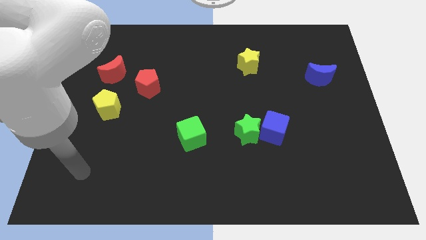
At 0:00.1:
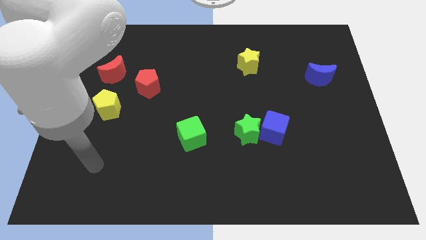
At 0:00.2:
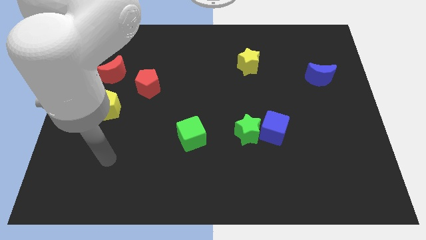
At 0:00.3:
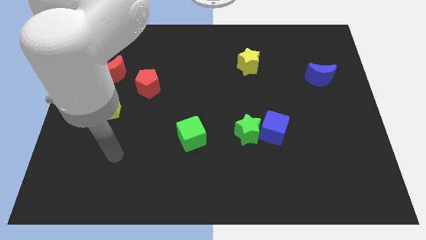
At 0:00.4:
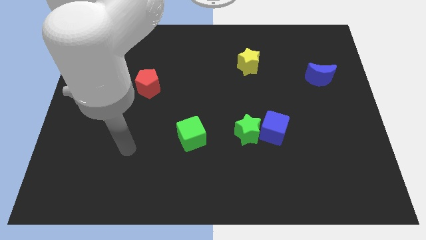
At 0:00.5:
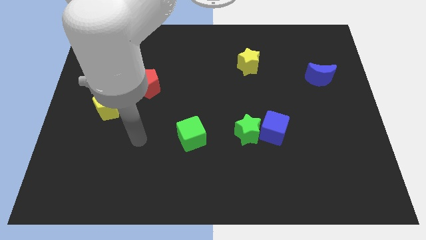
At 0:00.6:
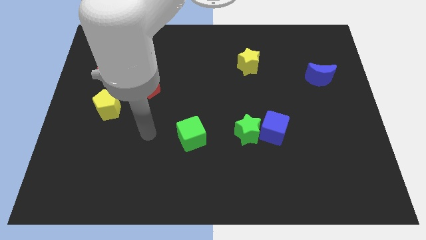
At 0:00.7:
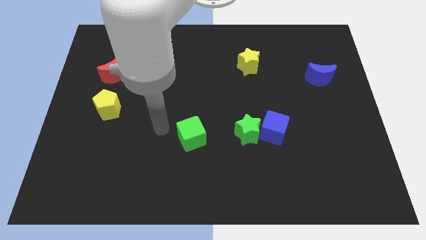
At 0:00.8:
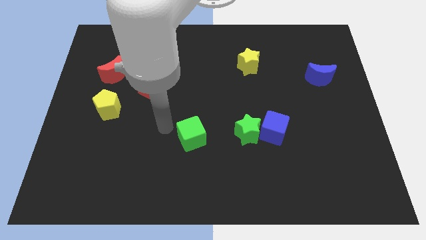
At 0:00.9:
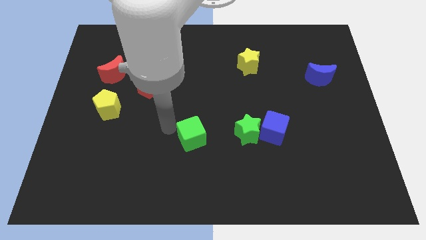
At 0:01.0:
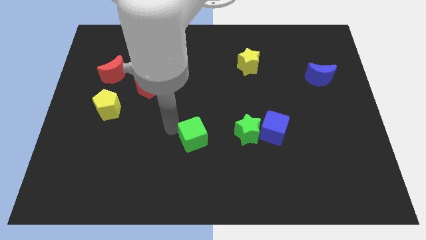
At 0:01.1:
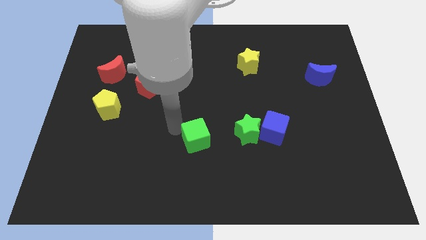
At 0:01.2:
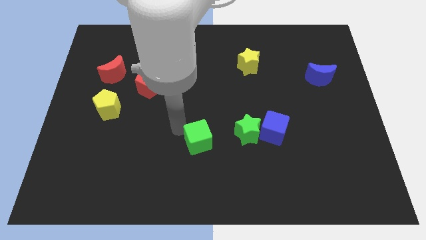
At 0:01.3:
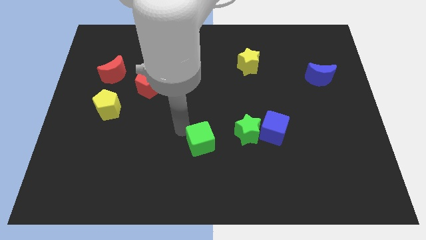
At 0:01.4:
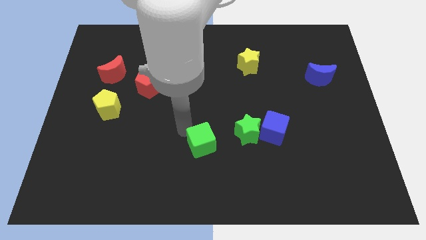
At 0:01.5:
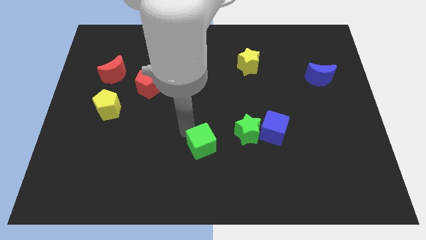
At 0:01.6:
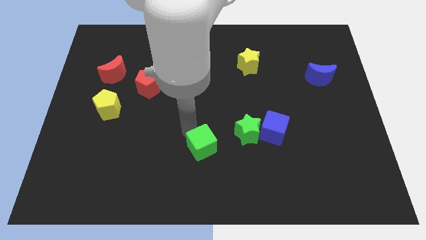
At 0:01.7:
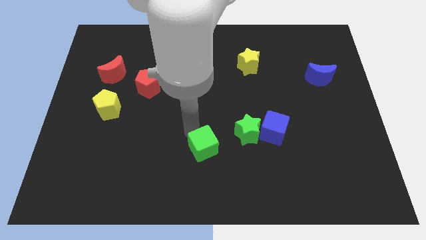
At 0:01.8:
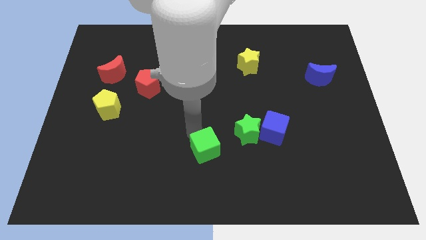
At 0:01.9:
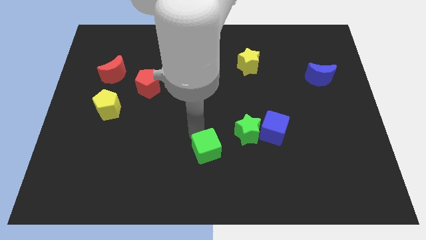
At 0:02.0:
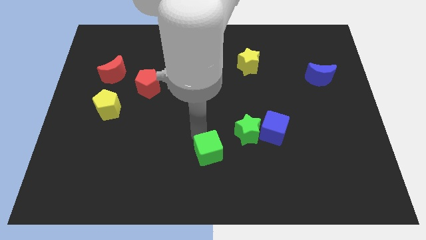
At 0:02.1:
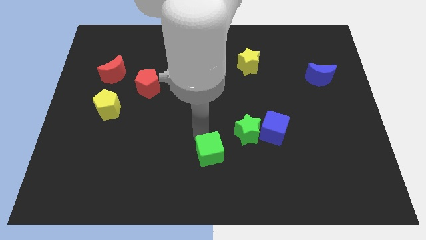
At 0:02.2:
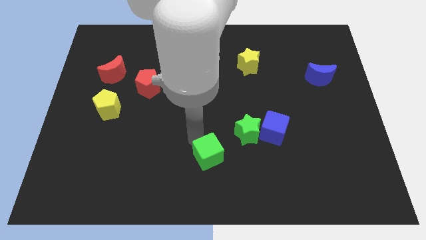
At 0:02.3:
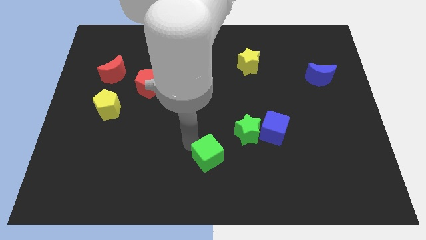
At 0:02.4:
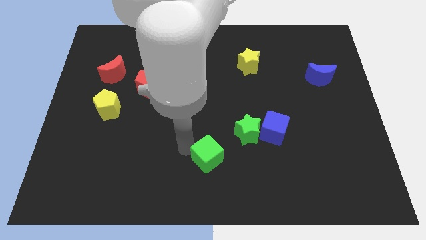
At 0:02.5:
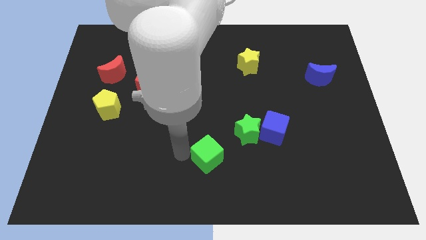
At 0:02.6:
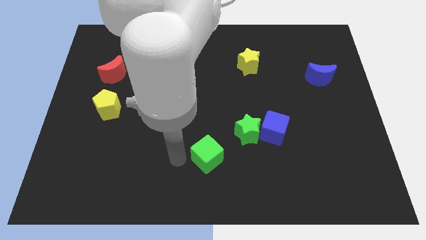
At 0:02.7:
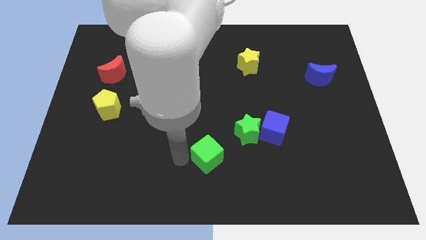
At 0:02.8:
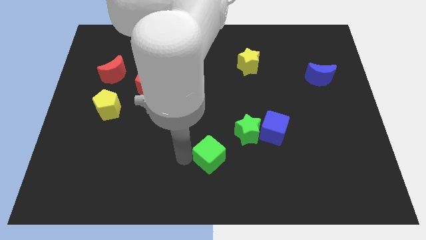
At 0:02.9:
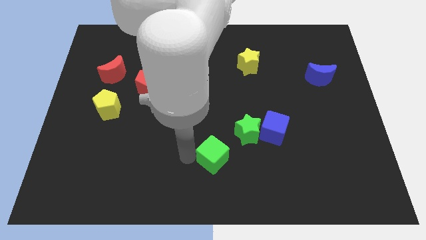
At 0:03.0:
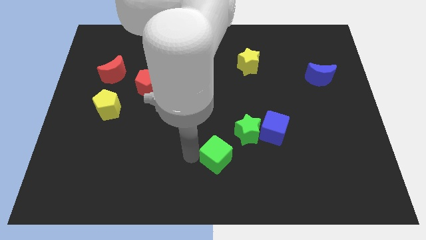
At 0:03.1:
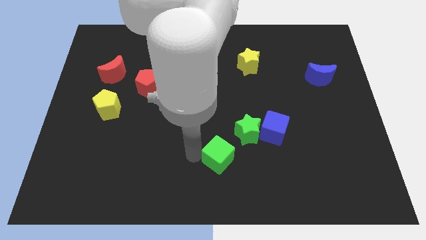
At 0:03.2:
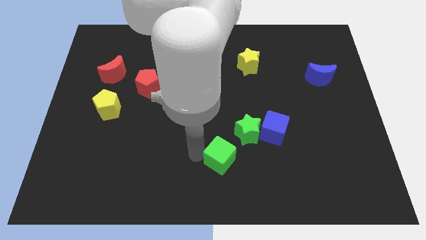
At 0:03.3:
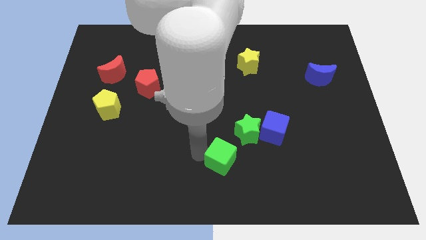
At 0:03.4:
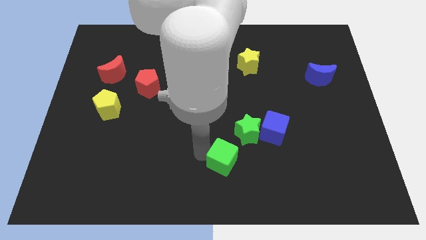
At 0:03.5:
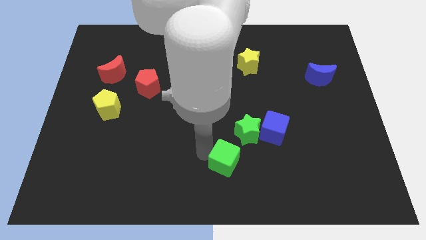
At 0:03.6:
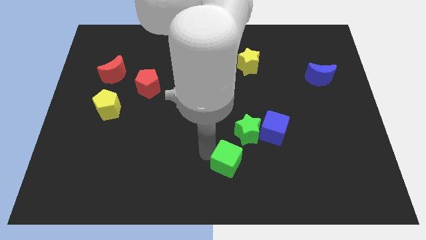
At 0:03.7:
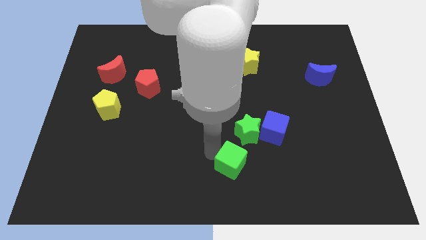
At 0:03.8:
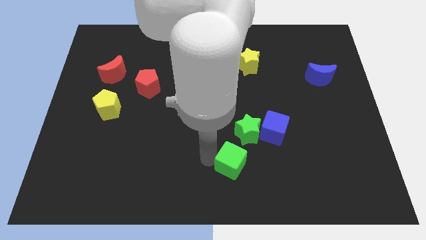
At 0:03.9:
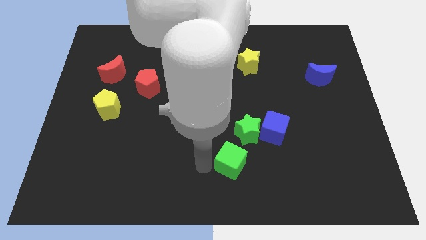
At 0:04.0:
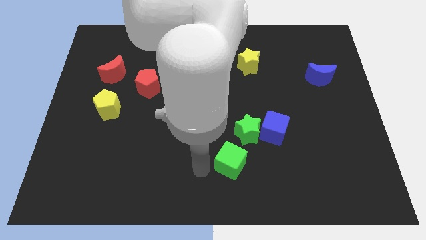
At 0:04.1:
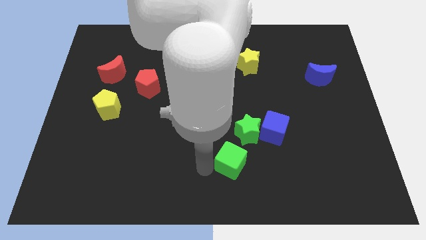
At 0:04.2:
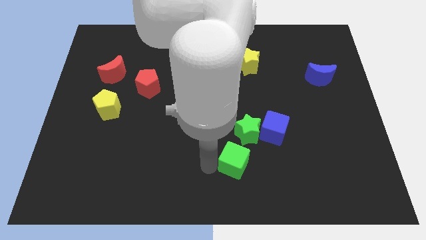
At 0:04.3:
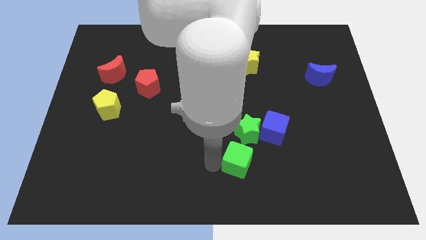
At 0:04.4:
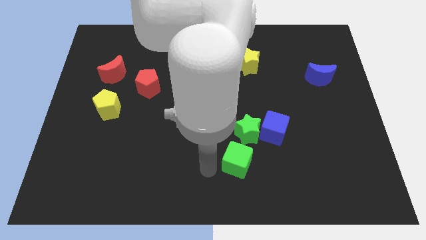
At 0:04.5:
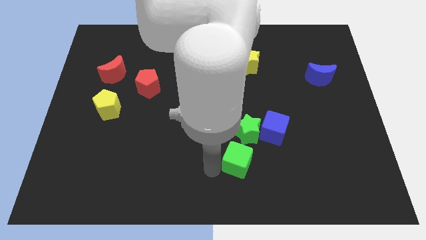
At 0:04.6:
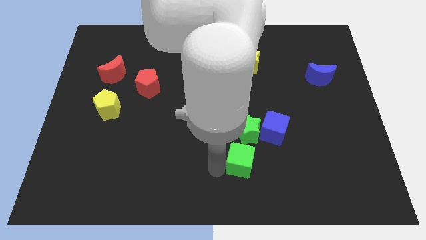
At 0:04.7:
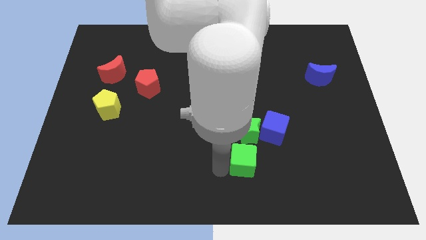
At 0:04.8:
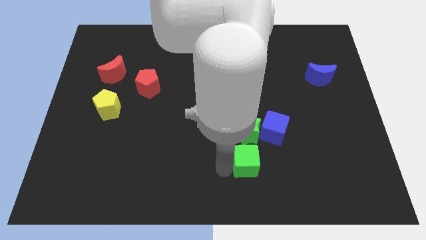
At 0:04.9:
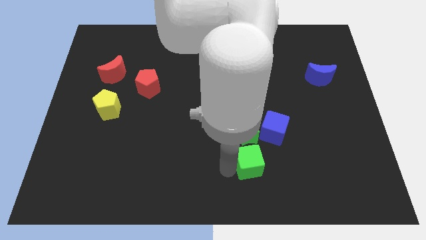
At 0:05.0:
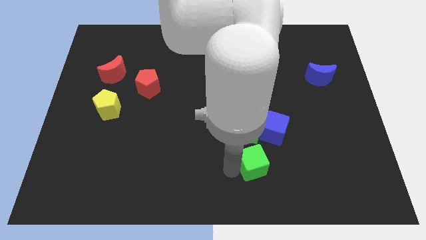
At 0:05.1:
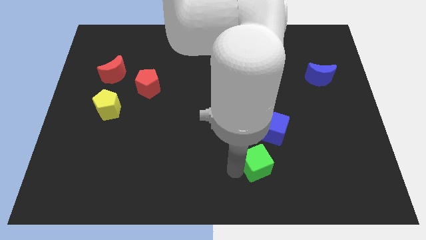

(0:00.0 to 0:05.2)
slide the green cube to the bottom right of the green star

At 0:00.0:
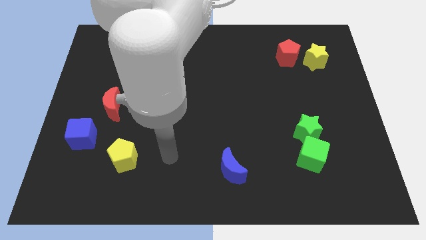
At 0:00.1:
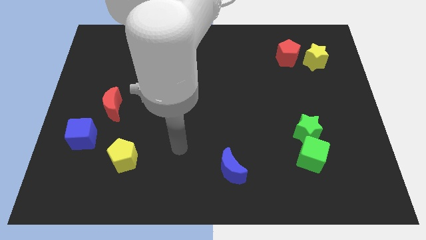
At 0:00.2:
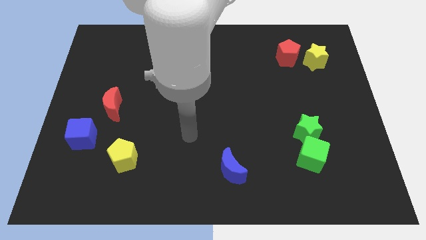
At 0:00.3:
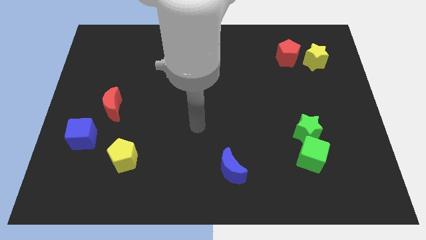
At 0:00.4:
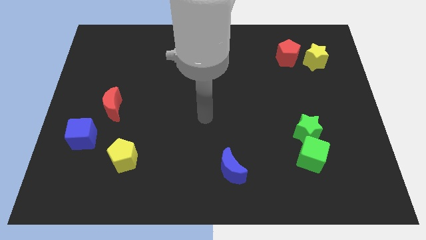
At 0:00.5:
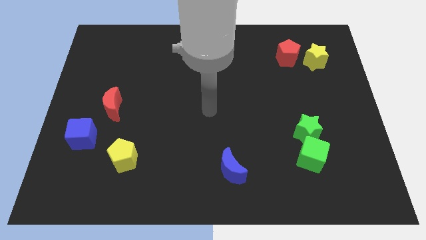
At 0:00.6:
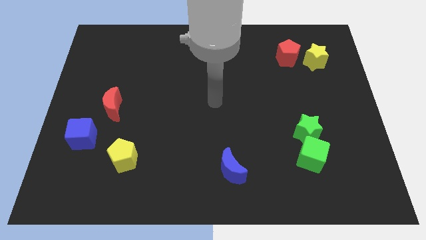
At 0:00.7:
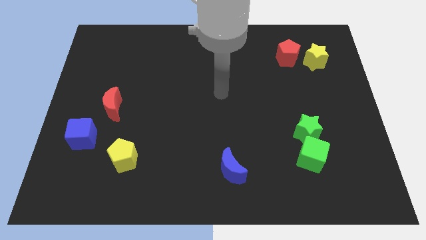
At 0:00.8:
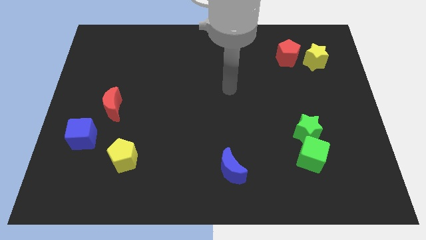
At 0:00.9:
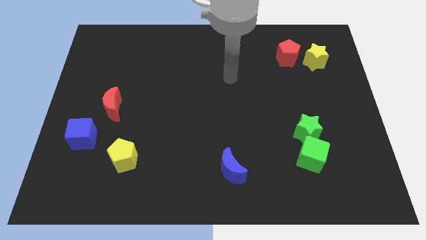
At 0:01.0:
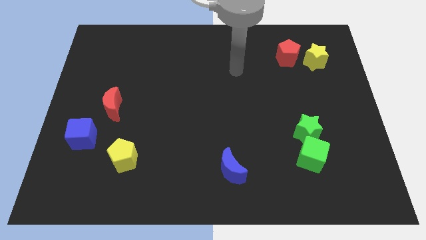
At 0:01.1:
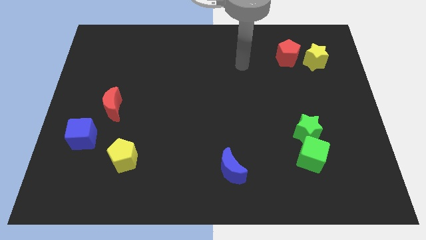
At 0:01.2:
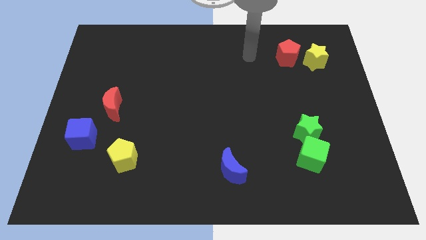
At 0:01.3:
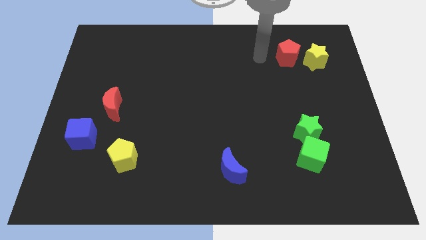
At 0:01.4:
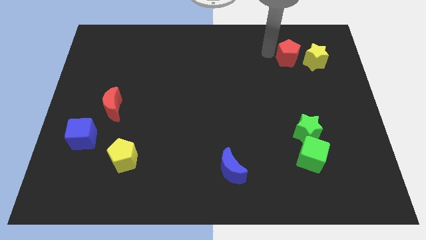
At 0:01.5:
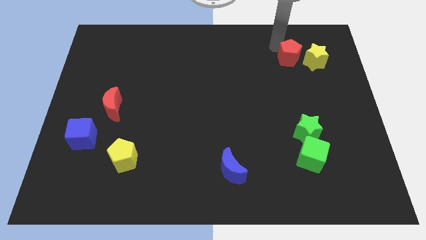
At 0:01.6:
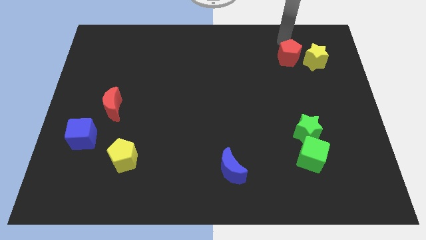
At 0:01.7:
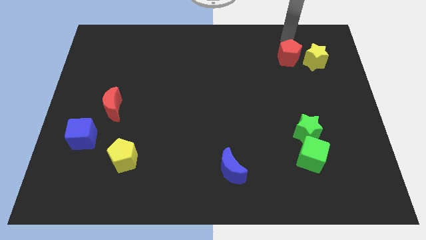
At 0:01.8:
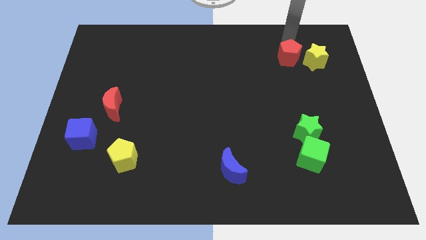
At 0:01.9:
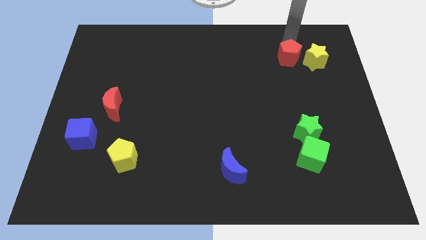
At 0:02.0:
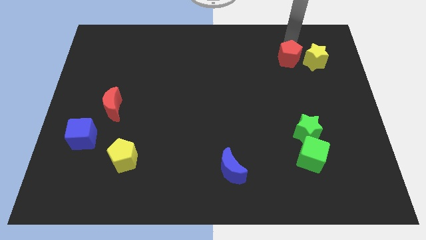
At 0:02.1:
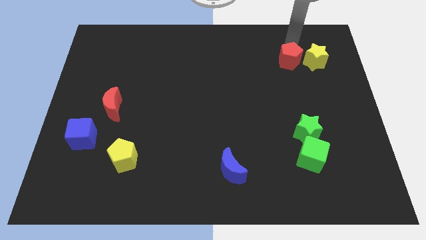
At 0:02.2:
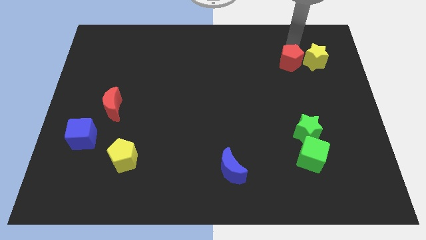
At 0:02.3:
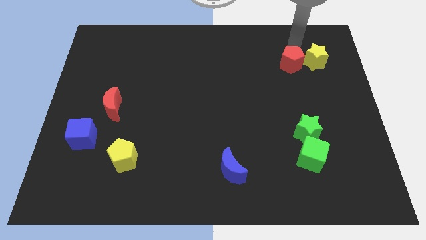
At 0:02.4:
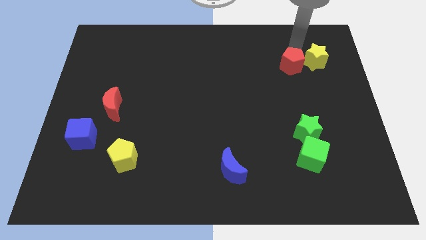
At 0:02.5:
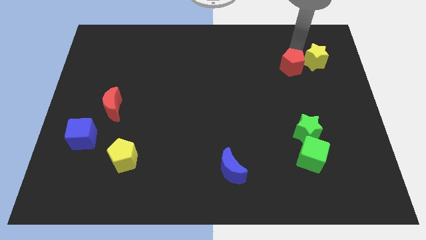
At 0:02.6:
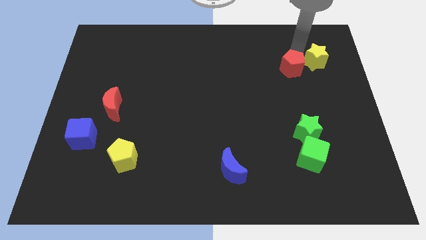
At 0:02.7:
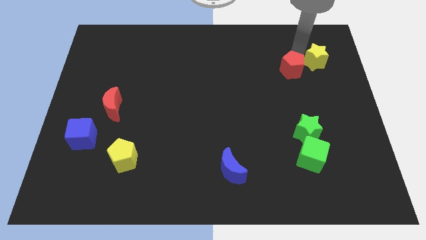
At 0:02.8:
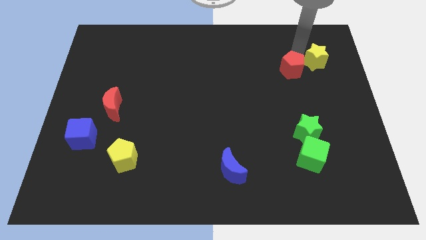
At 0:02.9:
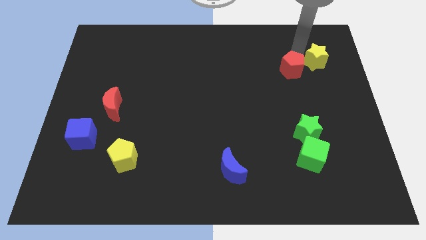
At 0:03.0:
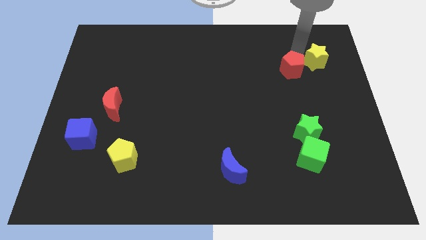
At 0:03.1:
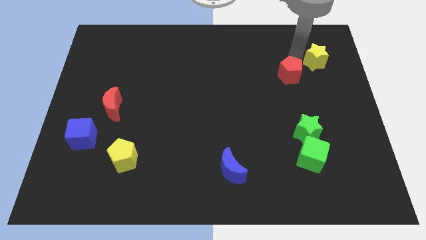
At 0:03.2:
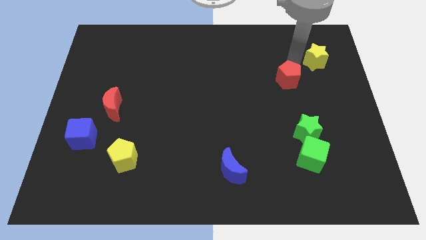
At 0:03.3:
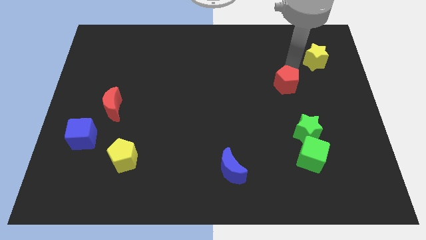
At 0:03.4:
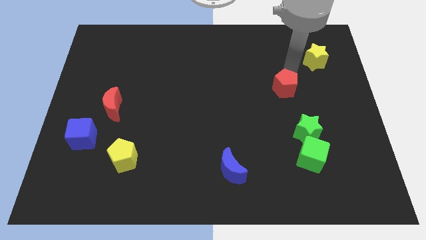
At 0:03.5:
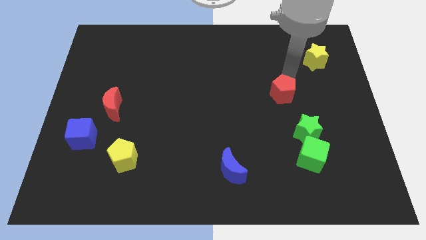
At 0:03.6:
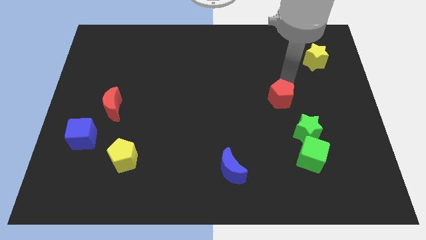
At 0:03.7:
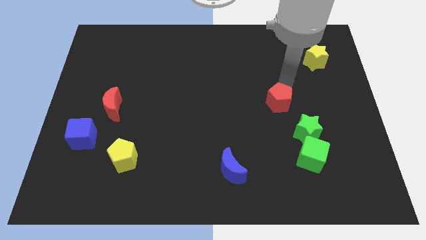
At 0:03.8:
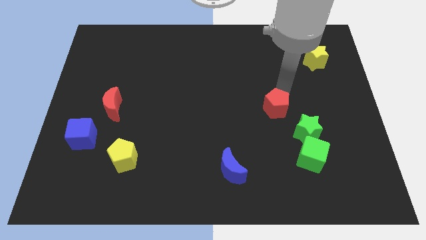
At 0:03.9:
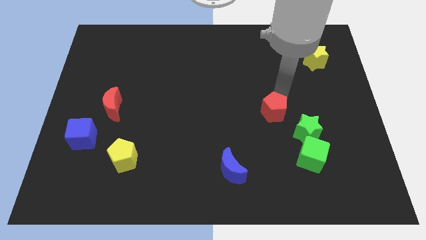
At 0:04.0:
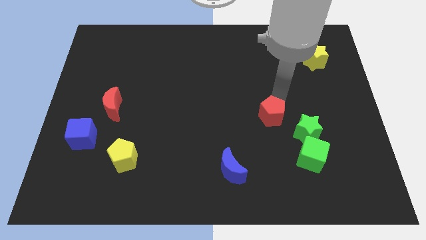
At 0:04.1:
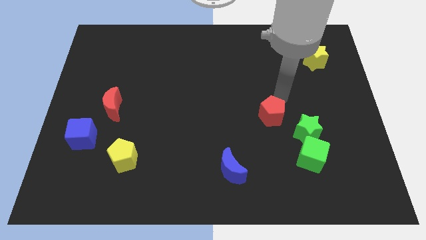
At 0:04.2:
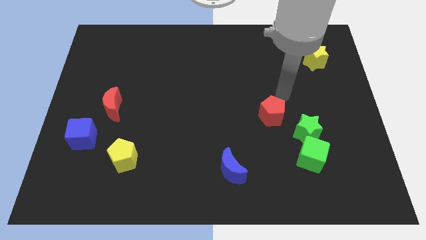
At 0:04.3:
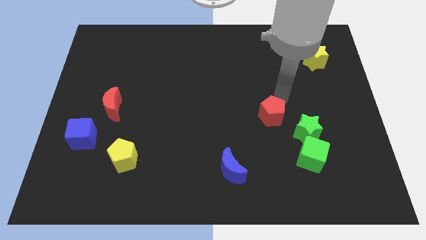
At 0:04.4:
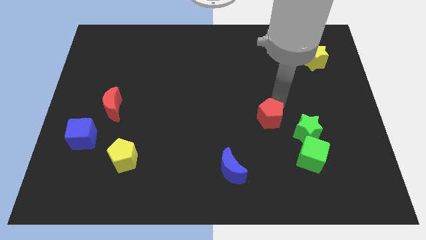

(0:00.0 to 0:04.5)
push the red pentagon just left of the green star
